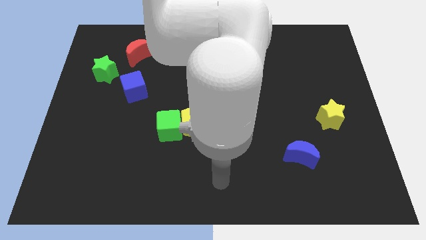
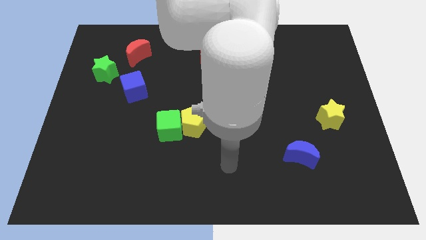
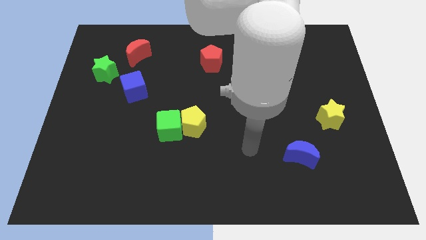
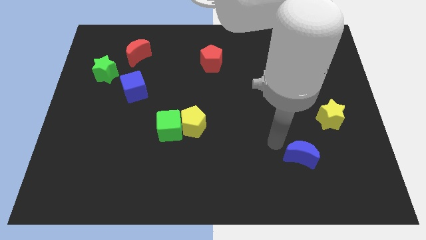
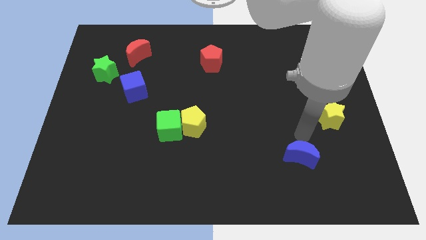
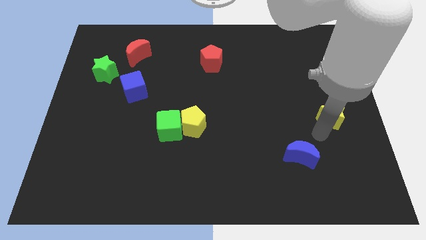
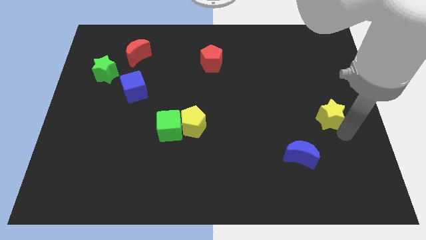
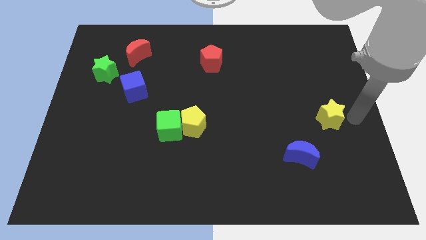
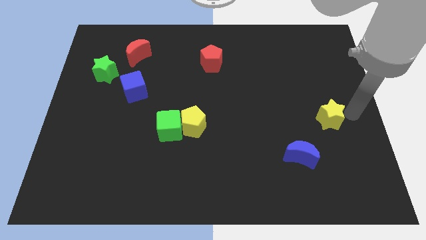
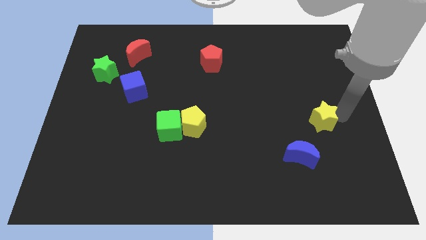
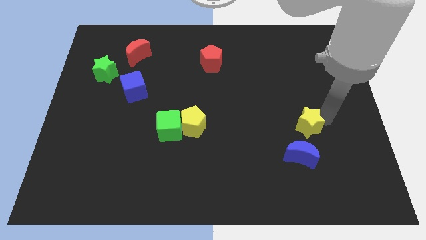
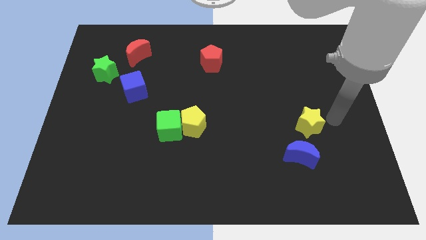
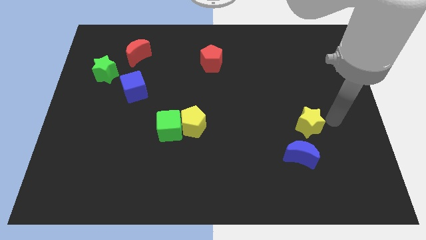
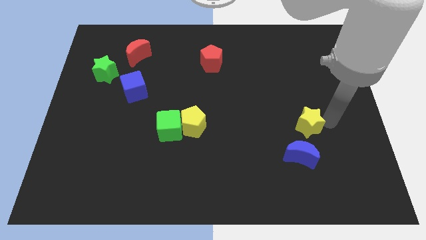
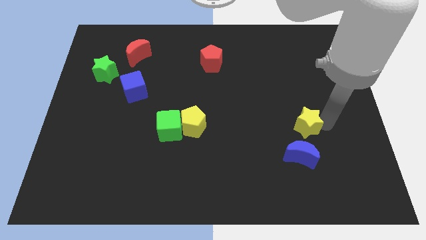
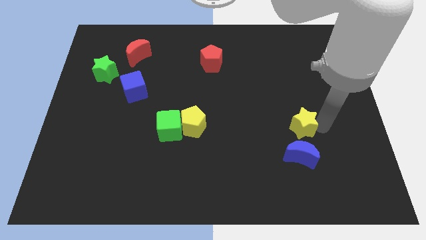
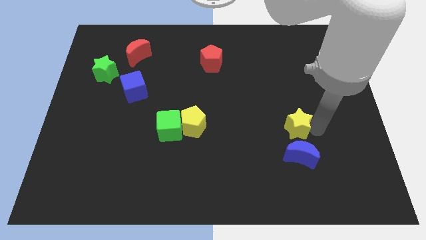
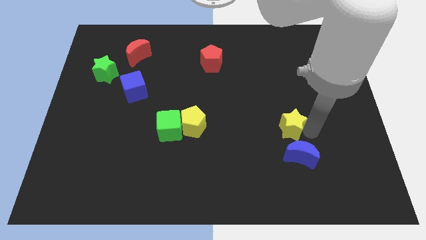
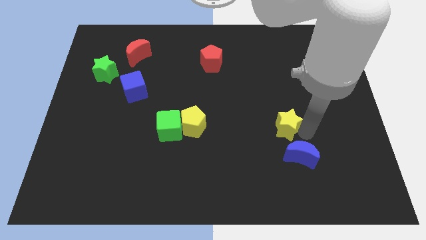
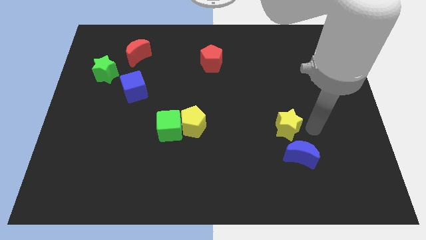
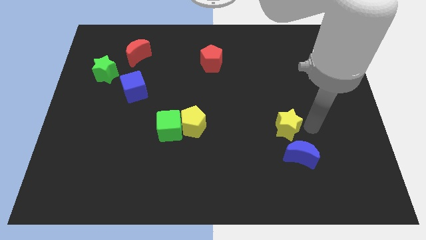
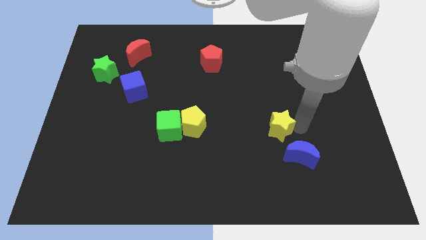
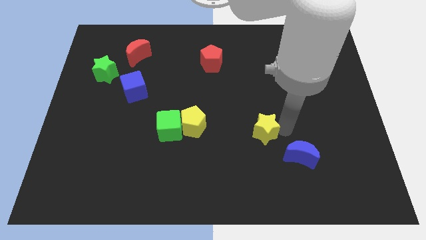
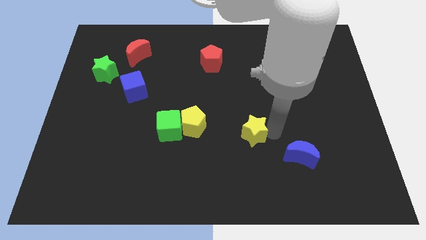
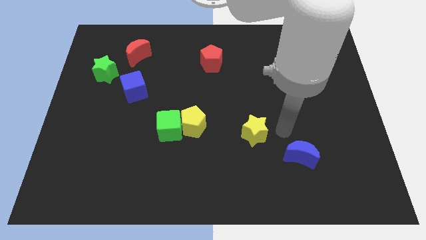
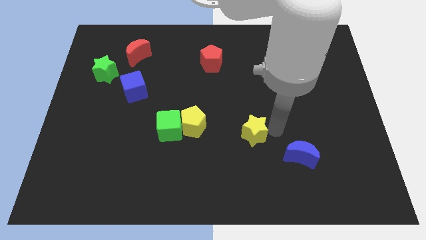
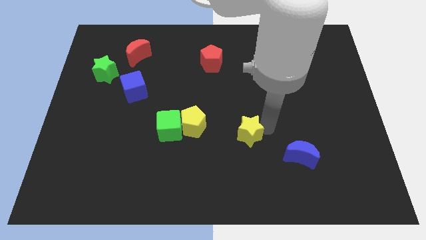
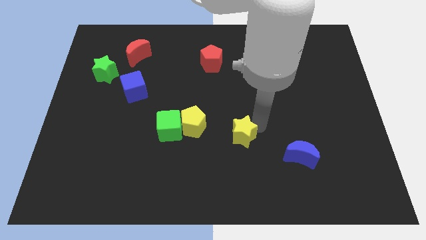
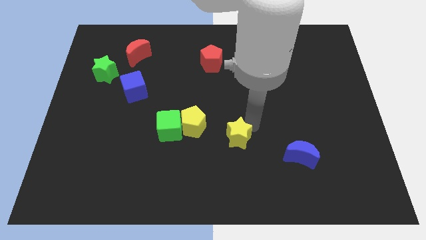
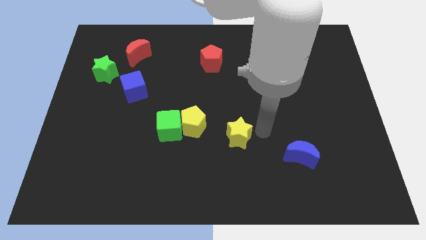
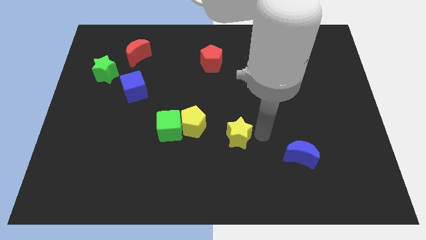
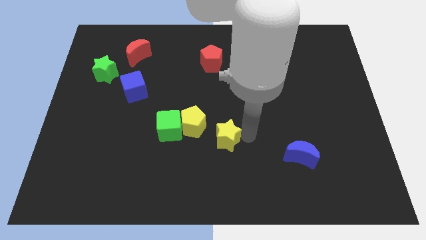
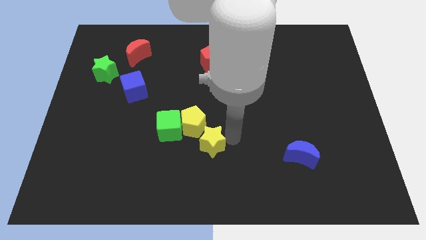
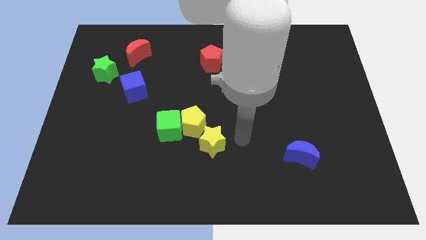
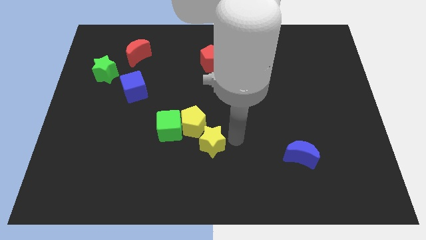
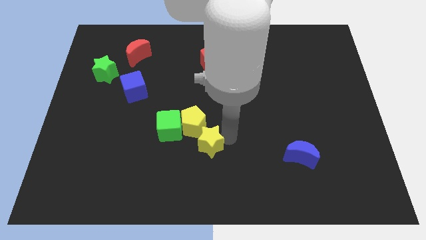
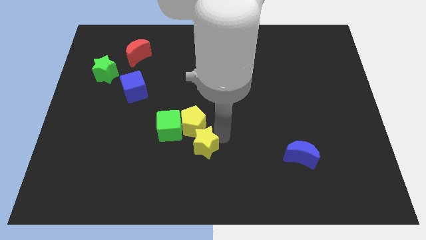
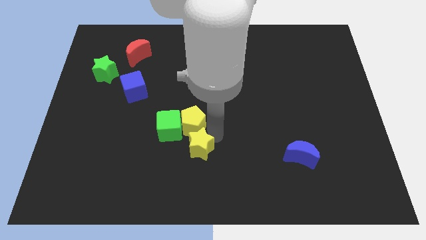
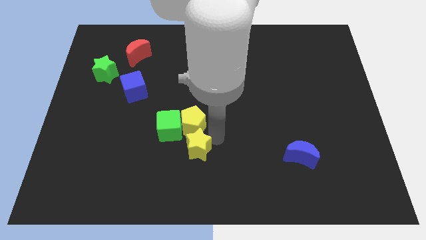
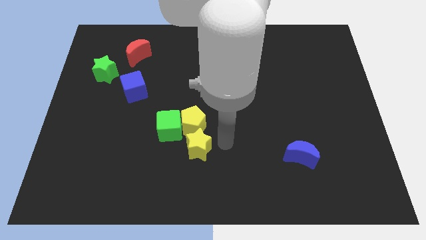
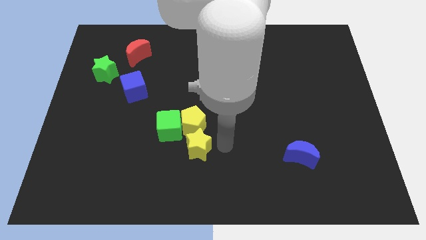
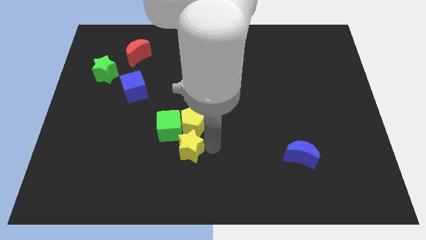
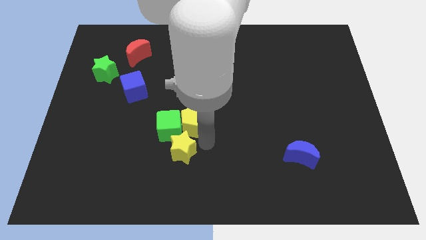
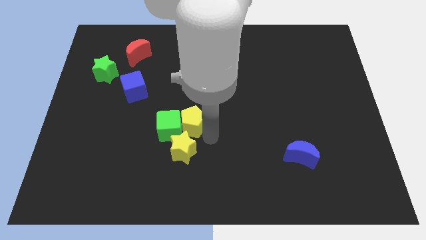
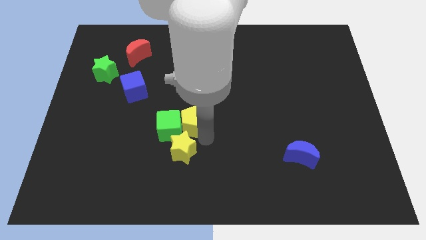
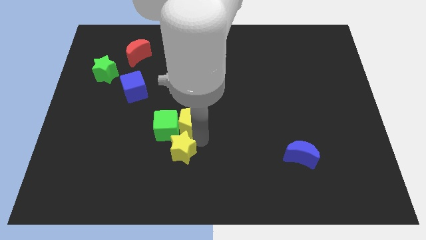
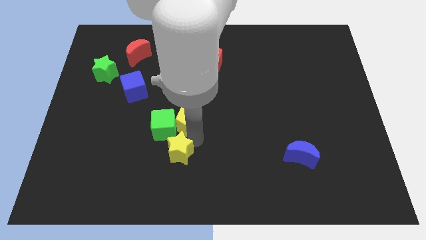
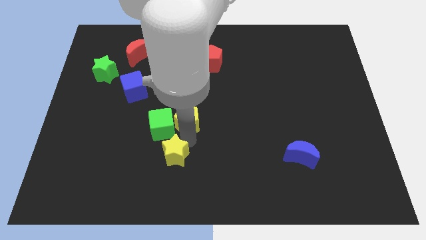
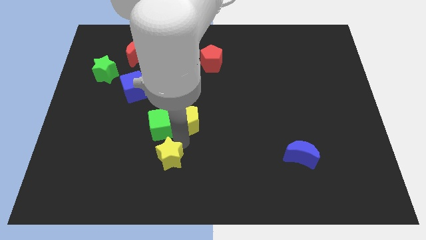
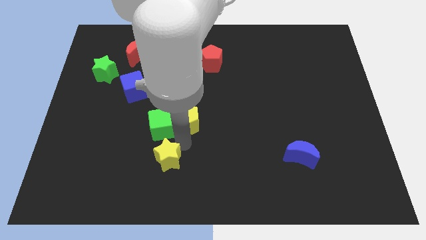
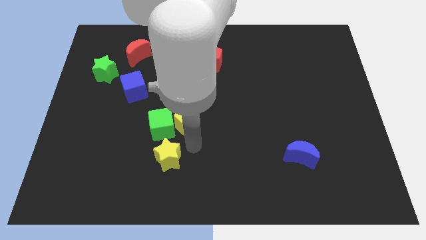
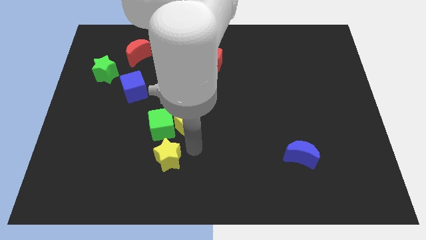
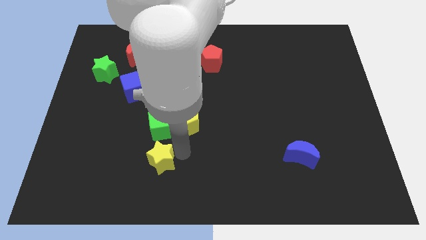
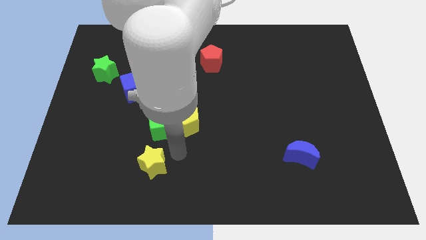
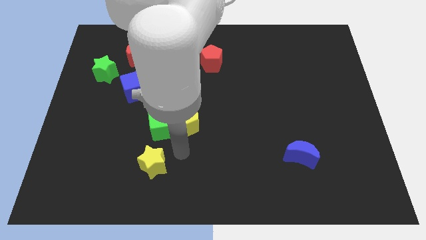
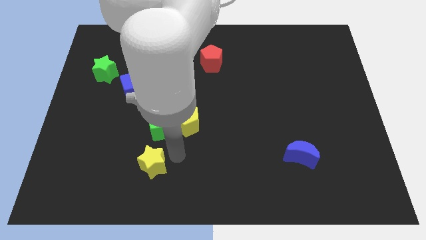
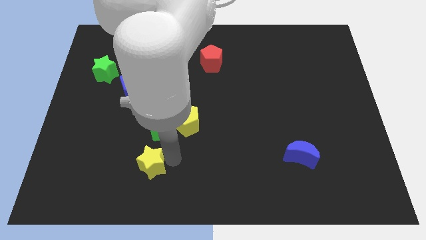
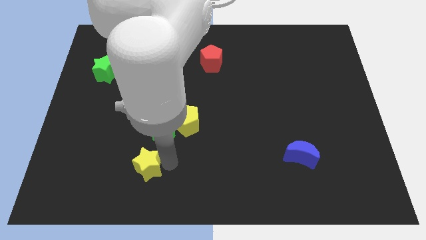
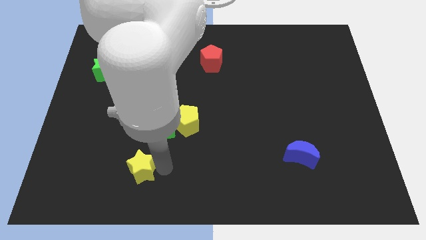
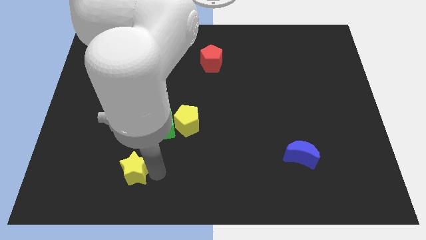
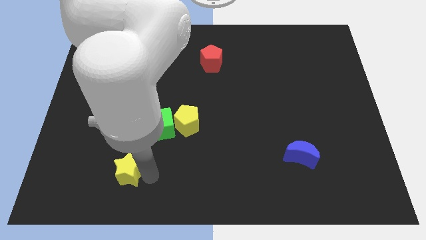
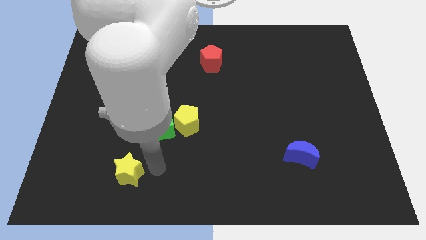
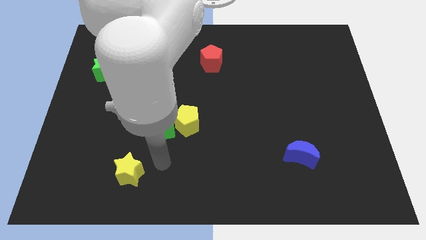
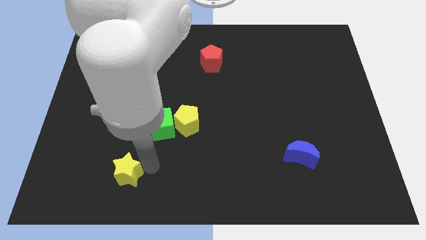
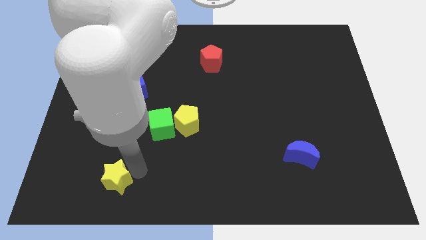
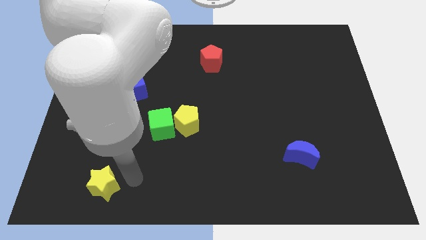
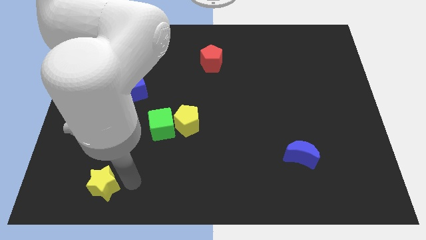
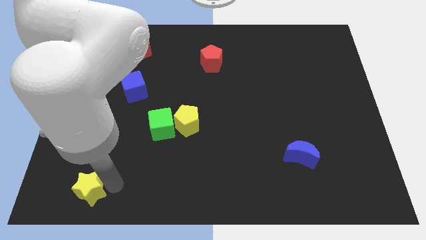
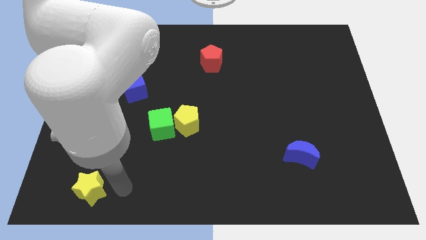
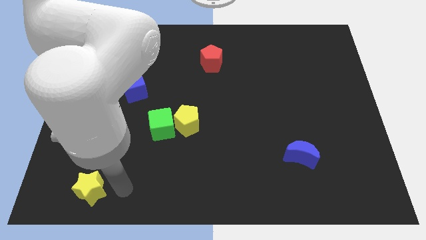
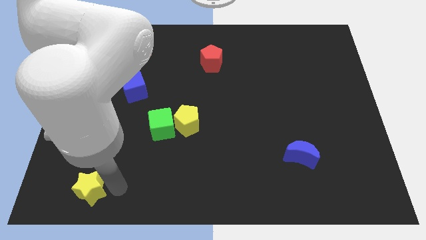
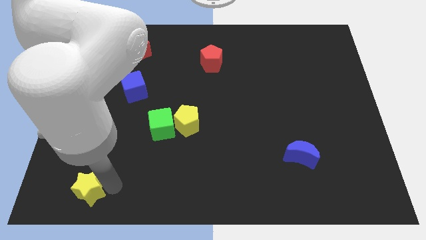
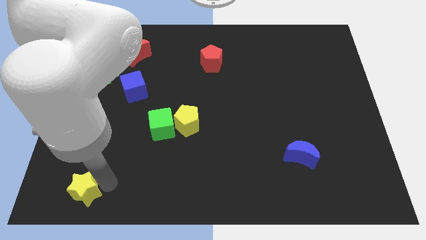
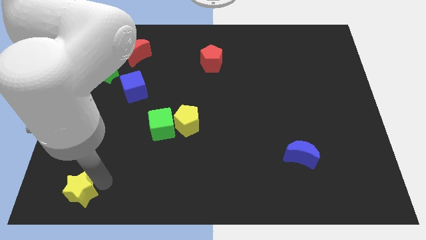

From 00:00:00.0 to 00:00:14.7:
push the yellow star to the lower left corner
